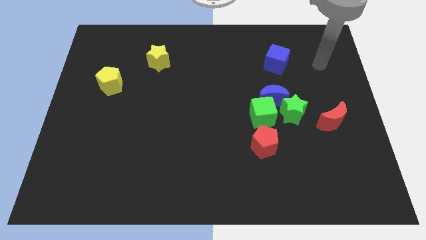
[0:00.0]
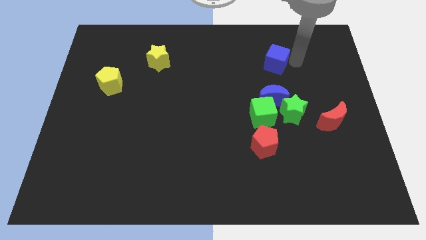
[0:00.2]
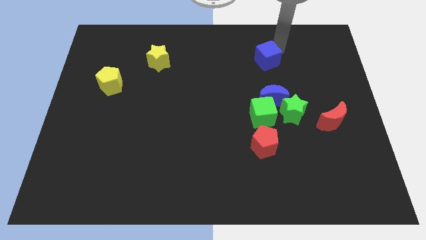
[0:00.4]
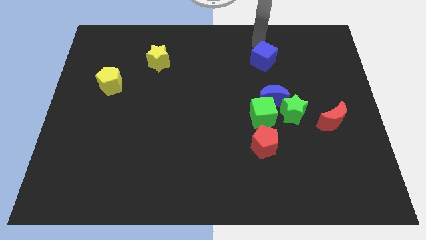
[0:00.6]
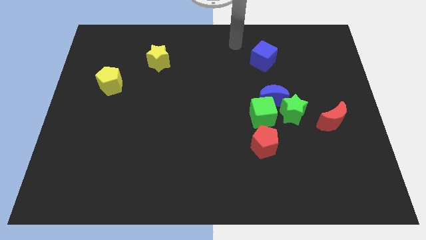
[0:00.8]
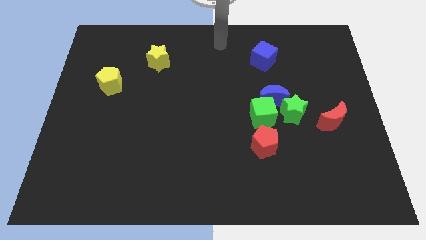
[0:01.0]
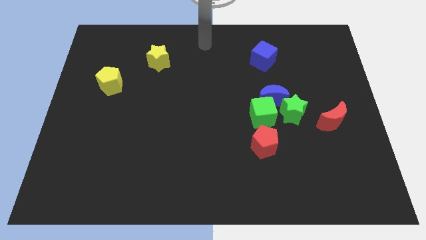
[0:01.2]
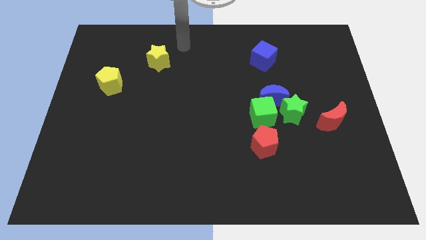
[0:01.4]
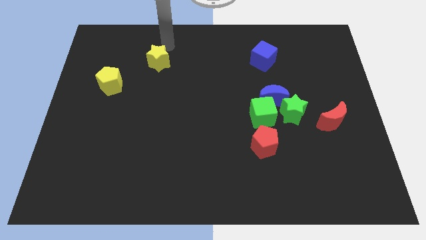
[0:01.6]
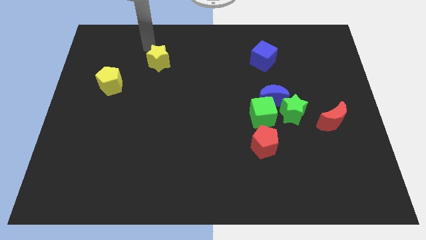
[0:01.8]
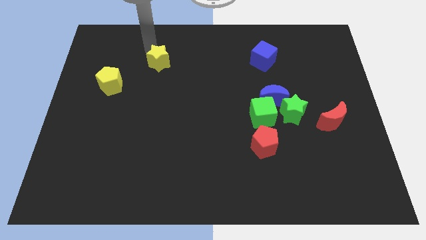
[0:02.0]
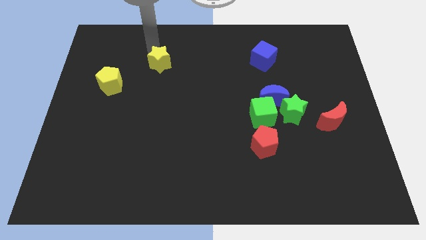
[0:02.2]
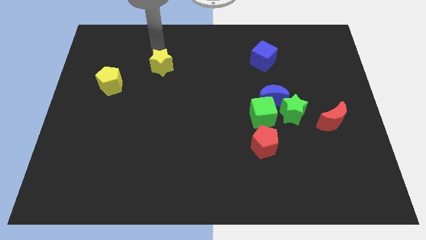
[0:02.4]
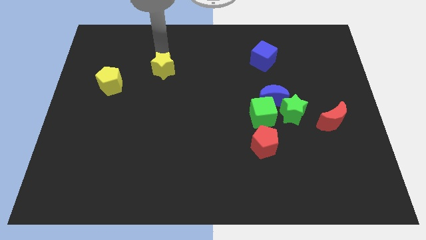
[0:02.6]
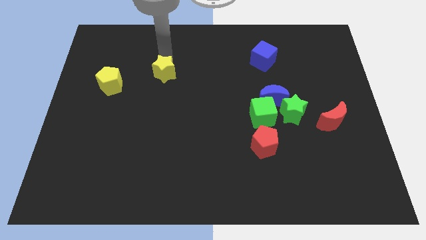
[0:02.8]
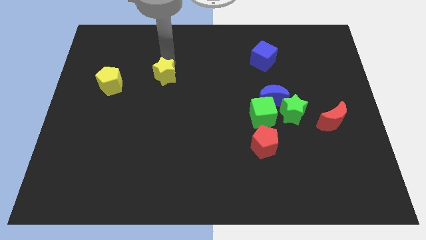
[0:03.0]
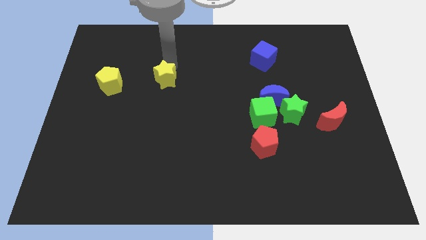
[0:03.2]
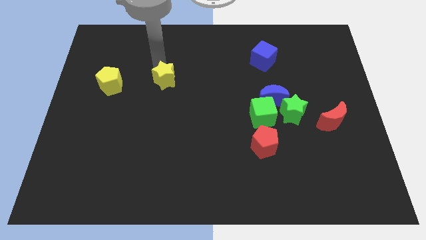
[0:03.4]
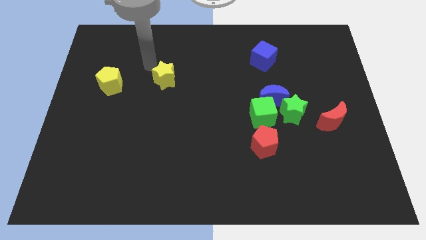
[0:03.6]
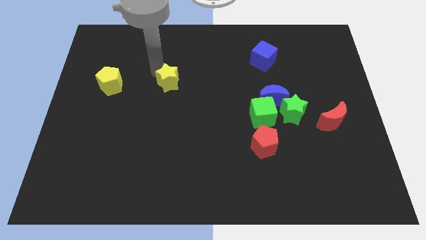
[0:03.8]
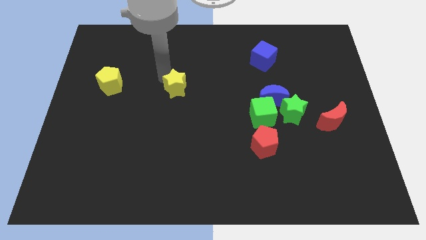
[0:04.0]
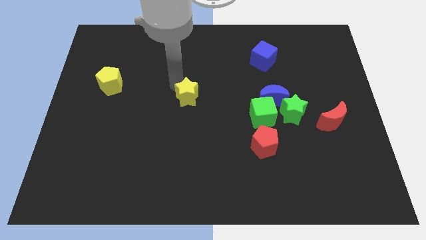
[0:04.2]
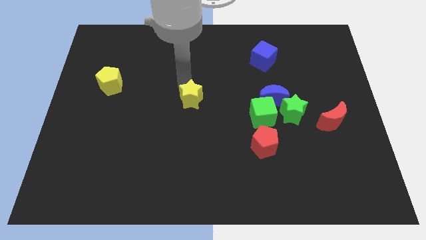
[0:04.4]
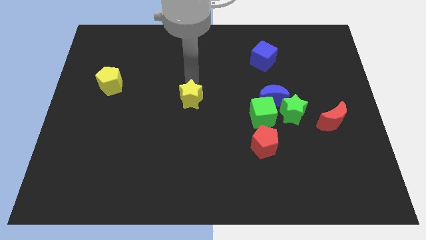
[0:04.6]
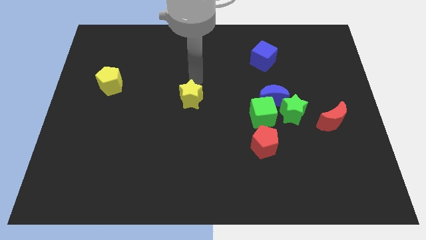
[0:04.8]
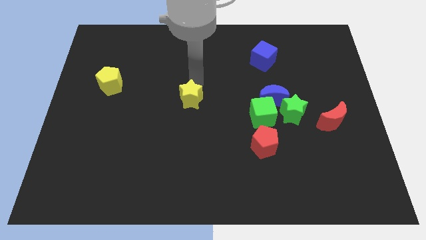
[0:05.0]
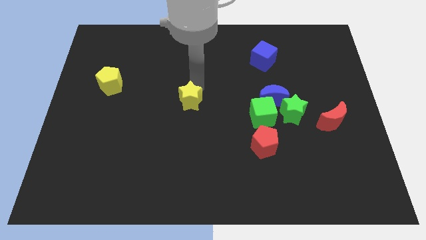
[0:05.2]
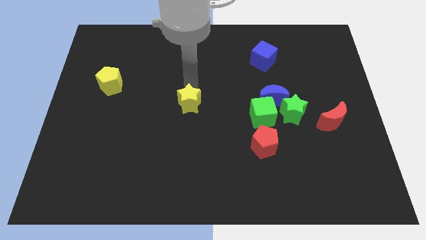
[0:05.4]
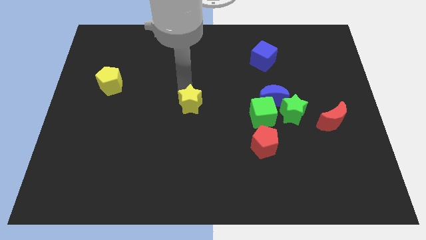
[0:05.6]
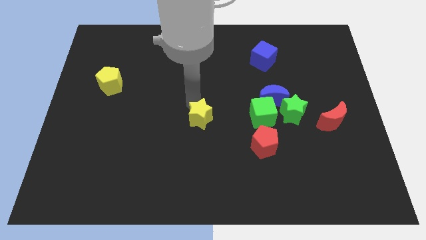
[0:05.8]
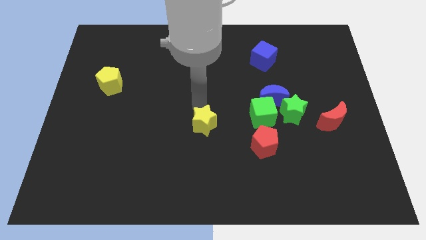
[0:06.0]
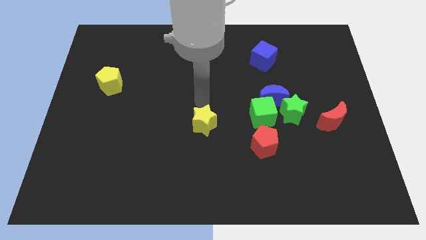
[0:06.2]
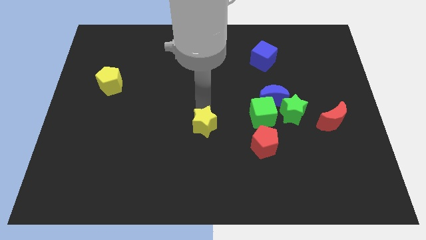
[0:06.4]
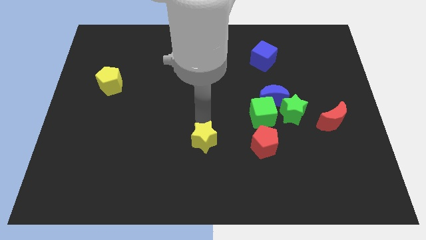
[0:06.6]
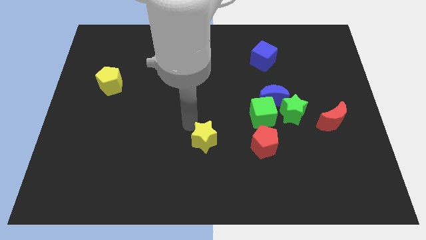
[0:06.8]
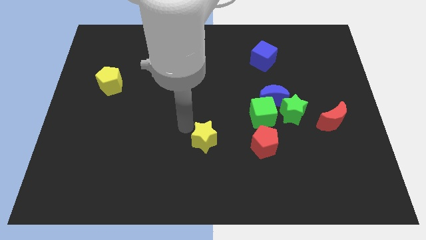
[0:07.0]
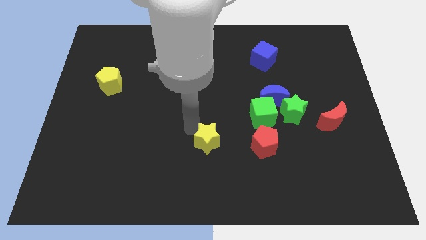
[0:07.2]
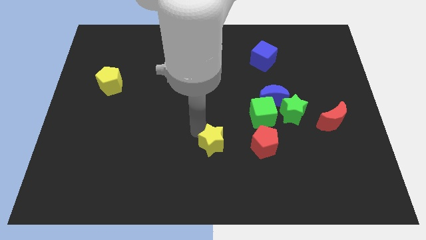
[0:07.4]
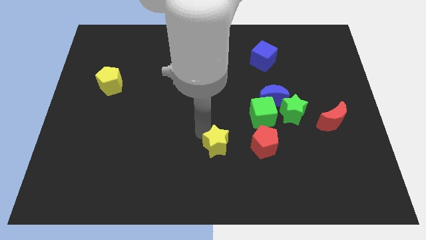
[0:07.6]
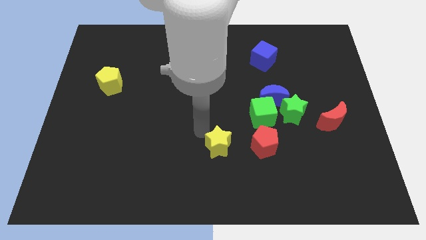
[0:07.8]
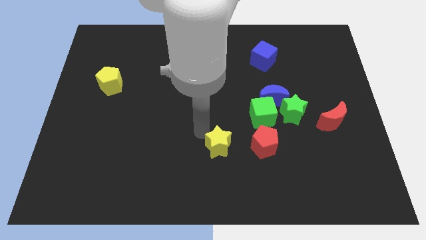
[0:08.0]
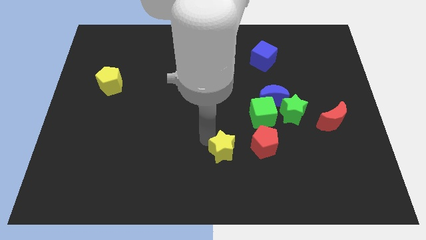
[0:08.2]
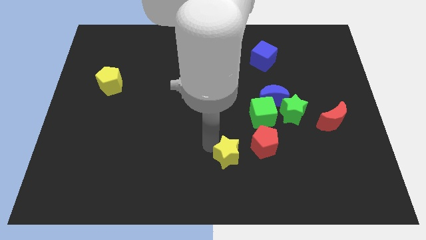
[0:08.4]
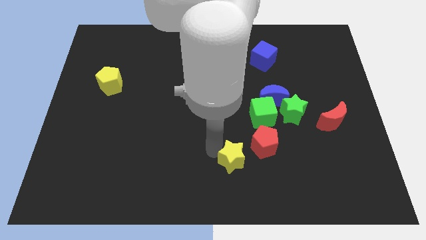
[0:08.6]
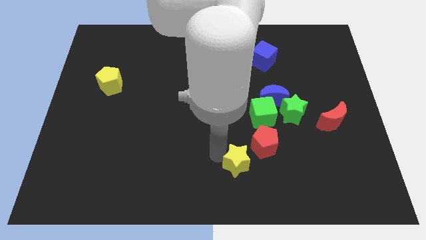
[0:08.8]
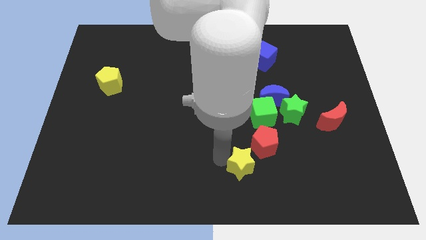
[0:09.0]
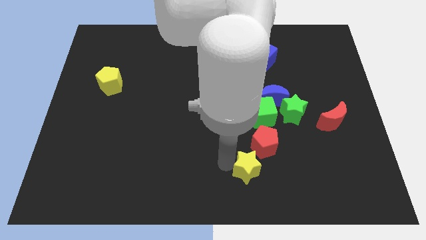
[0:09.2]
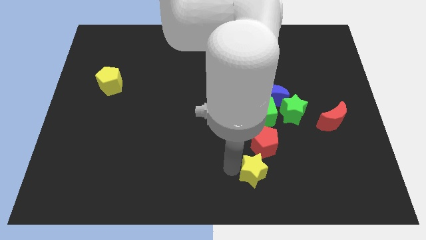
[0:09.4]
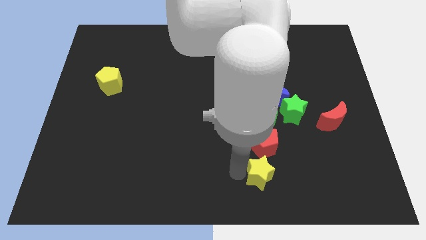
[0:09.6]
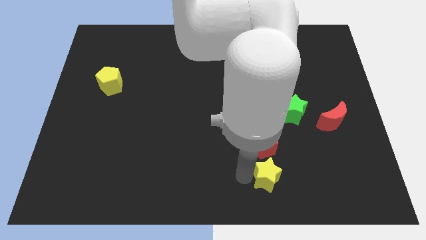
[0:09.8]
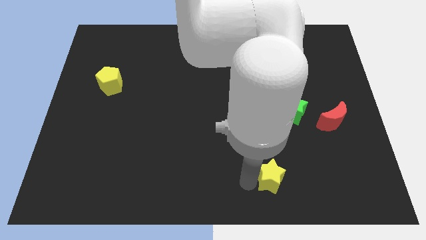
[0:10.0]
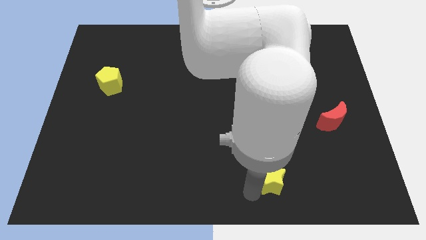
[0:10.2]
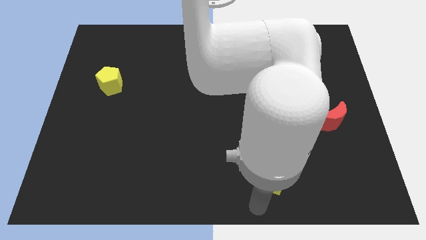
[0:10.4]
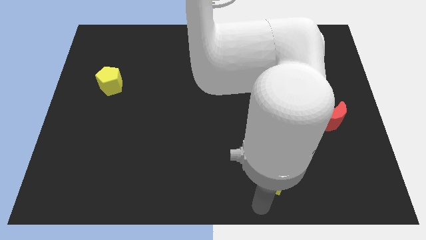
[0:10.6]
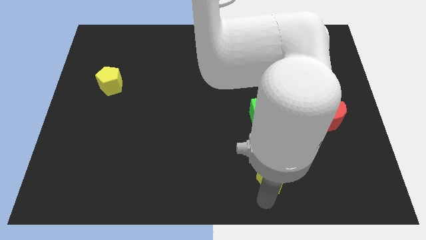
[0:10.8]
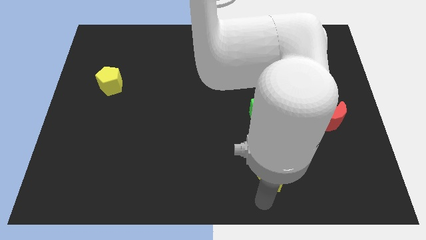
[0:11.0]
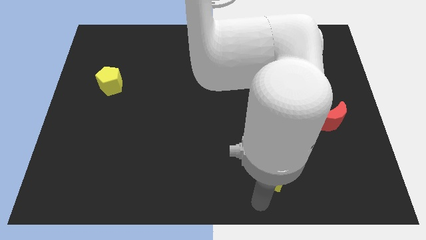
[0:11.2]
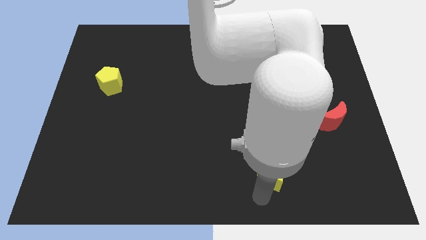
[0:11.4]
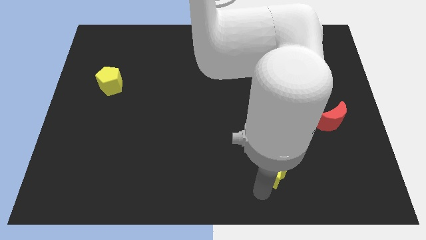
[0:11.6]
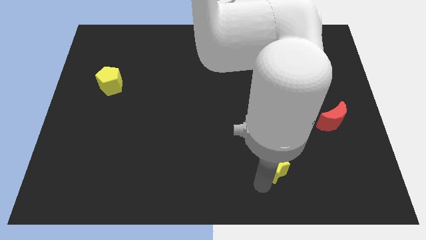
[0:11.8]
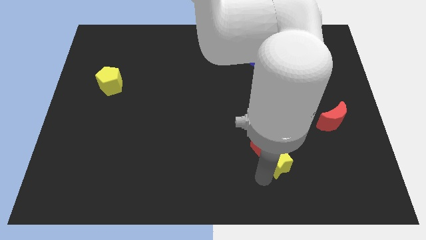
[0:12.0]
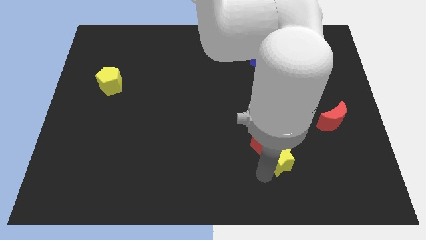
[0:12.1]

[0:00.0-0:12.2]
put the yellow star below the green star

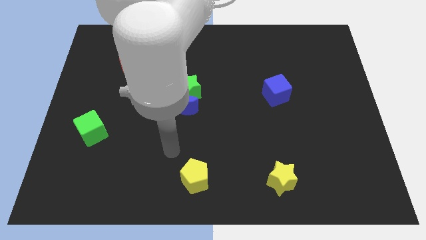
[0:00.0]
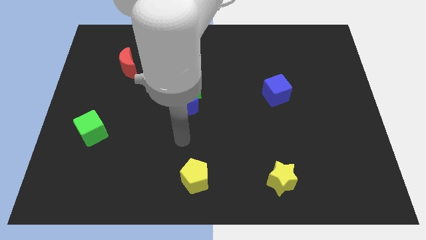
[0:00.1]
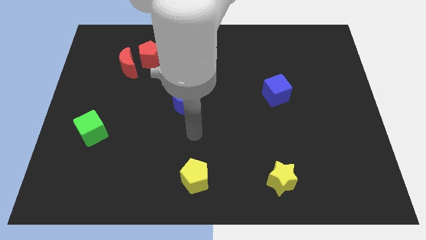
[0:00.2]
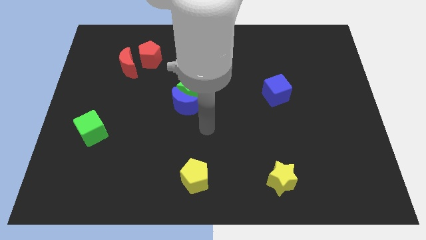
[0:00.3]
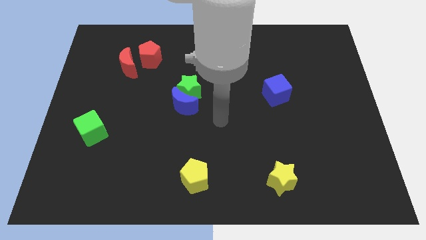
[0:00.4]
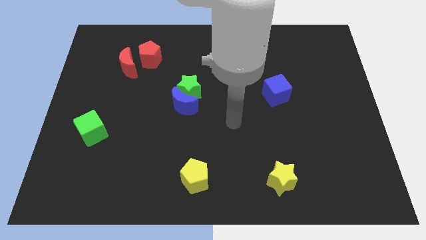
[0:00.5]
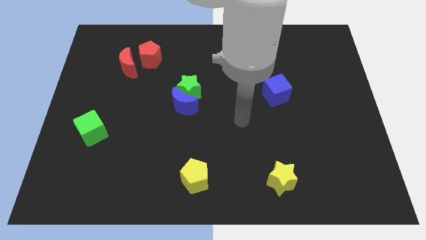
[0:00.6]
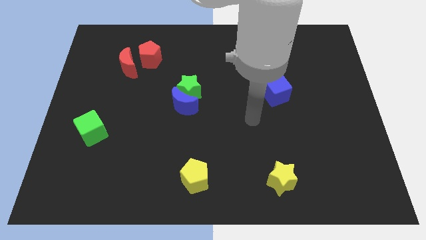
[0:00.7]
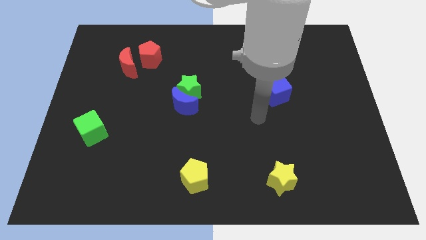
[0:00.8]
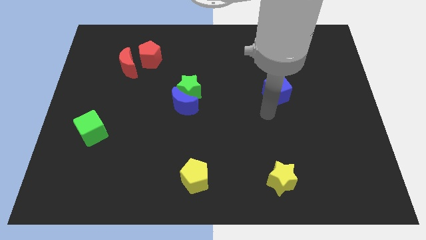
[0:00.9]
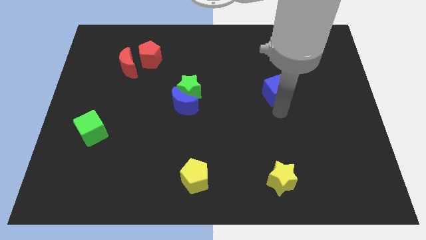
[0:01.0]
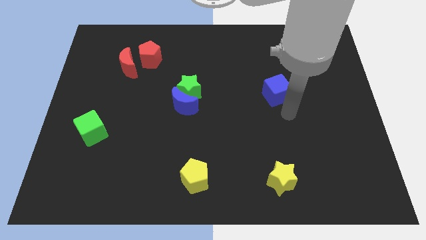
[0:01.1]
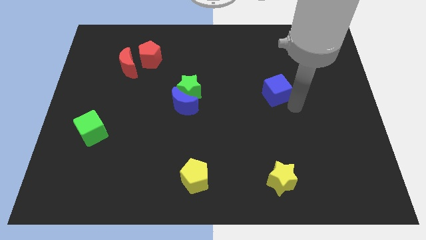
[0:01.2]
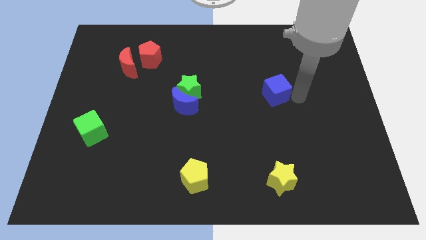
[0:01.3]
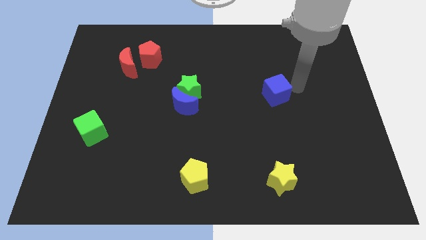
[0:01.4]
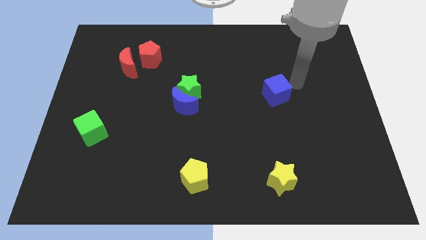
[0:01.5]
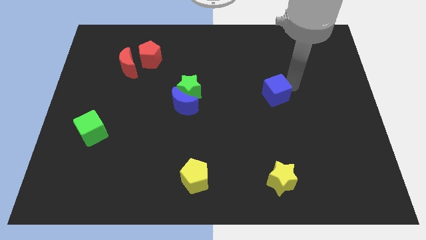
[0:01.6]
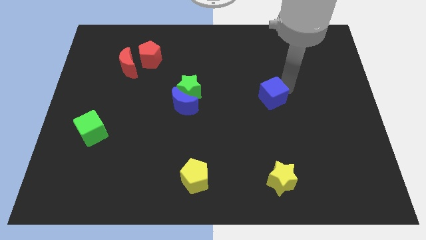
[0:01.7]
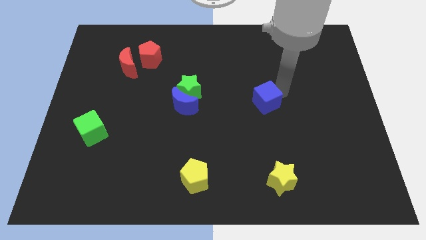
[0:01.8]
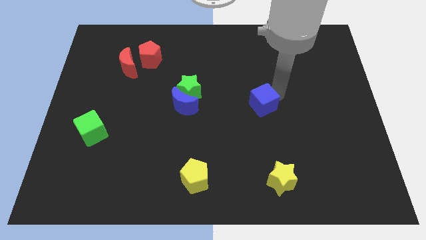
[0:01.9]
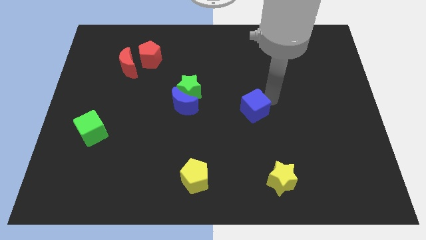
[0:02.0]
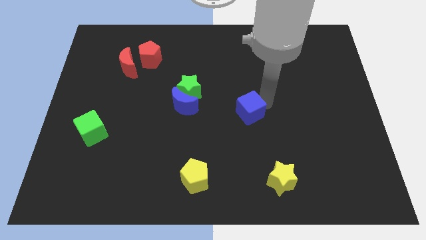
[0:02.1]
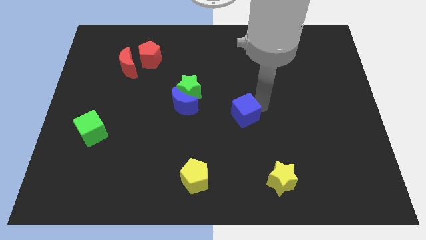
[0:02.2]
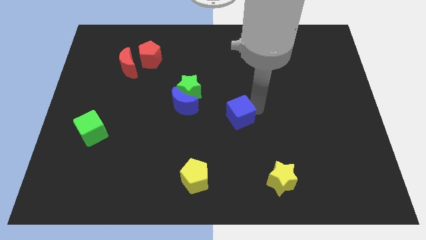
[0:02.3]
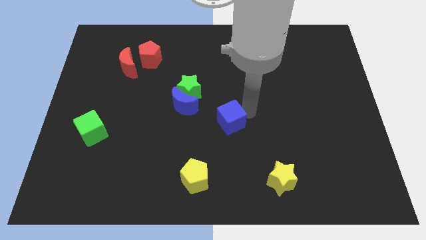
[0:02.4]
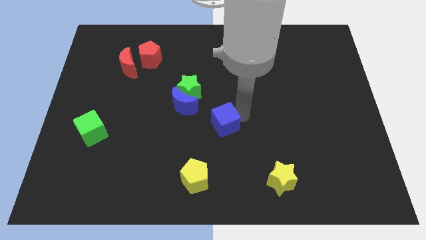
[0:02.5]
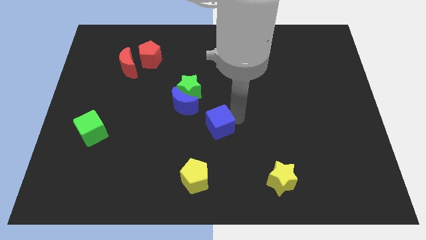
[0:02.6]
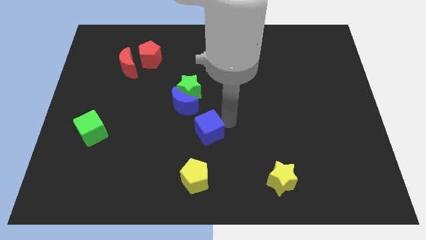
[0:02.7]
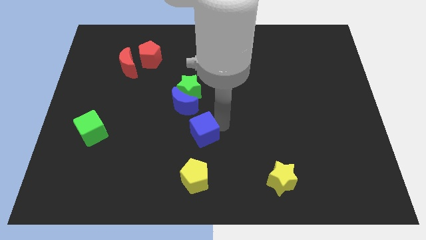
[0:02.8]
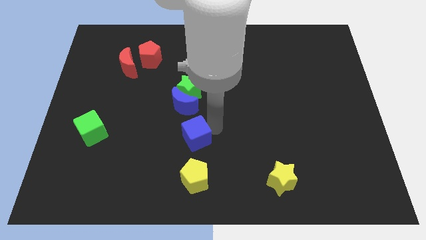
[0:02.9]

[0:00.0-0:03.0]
move the blue cube below the blue moon
